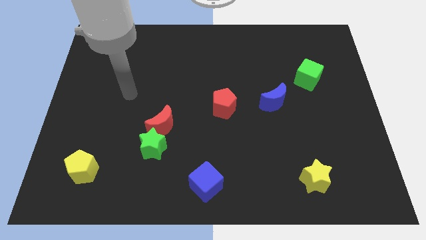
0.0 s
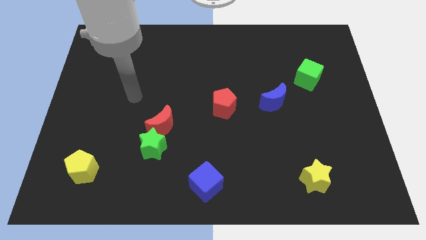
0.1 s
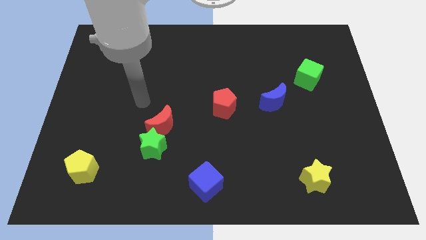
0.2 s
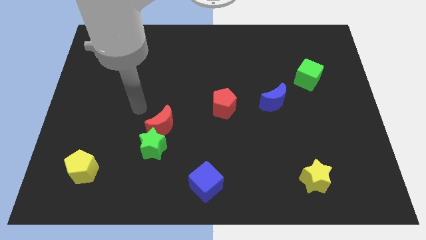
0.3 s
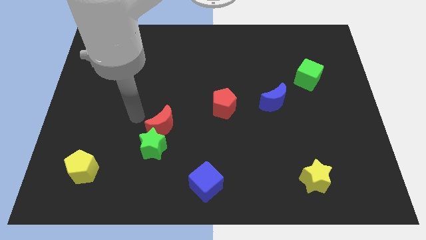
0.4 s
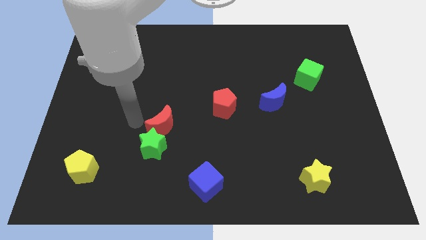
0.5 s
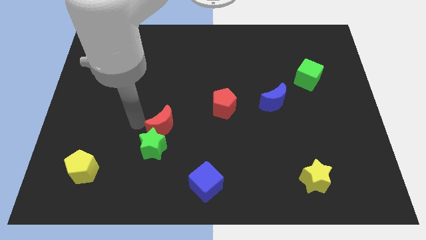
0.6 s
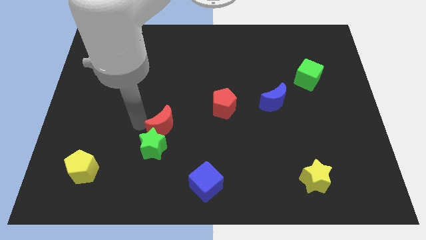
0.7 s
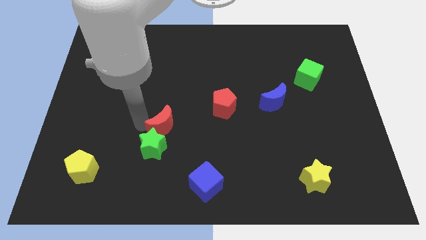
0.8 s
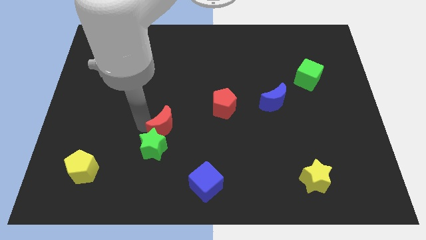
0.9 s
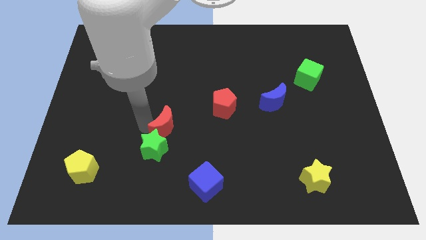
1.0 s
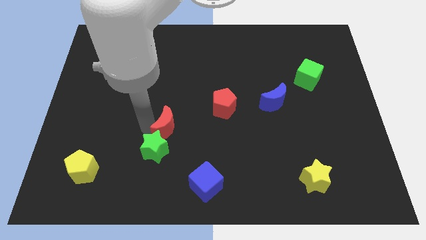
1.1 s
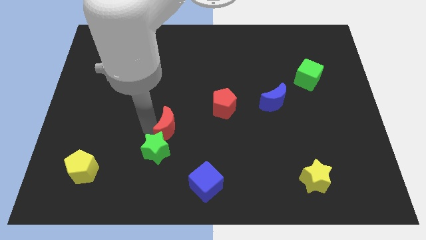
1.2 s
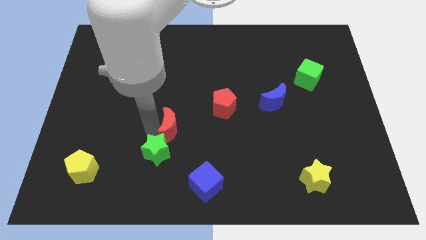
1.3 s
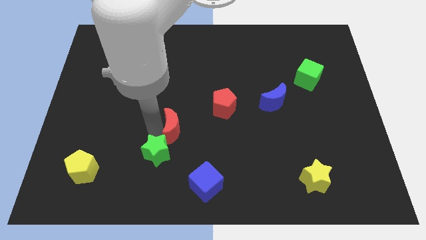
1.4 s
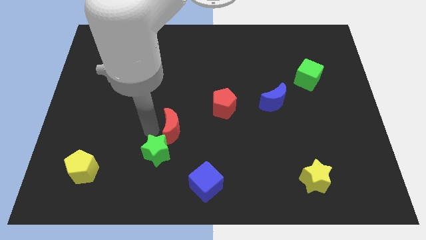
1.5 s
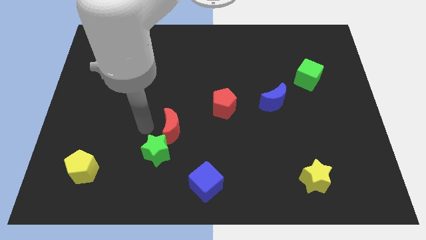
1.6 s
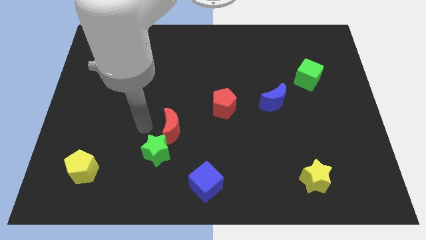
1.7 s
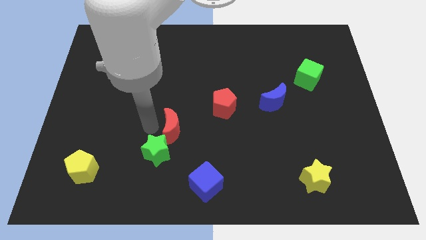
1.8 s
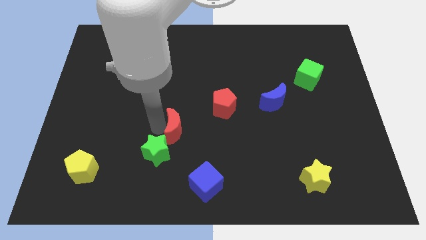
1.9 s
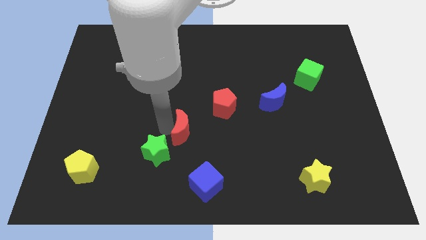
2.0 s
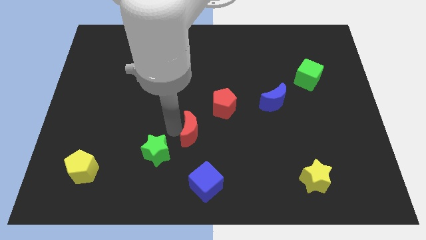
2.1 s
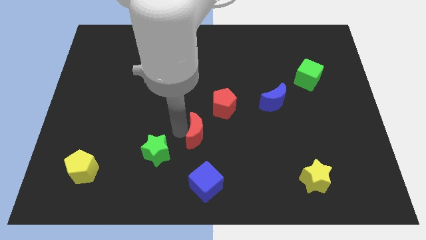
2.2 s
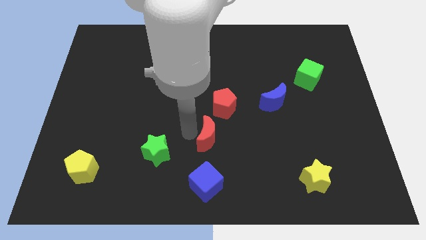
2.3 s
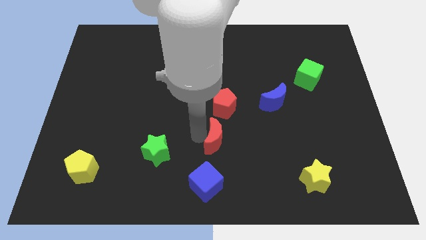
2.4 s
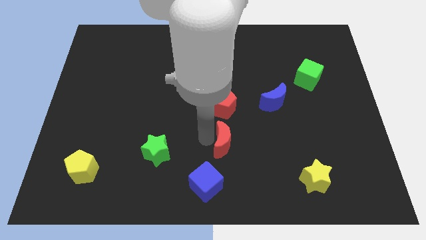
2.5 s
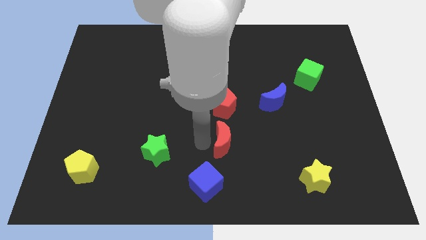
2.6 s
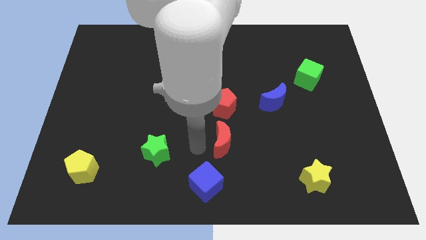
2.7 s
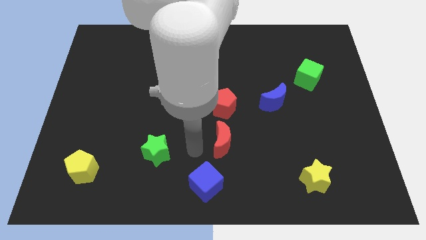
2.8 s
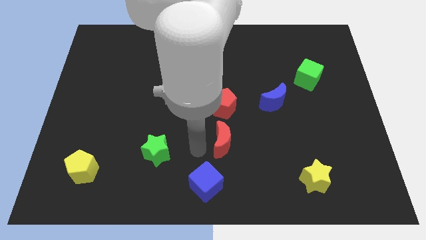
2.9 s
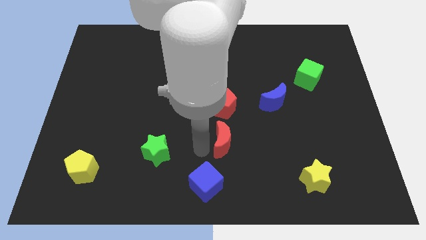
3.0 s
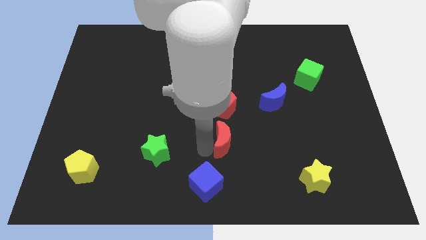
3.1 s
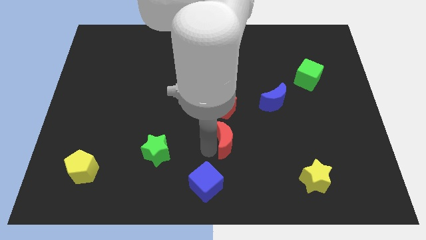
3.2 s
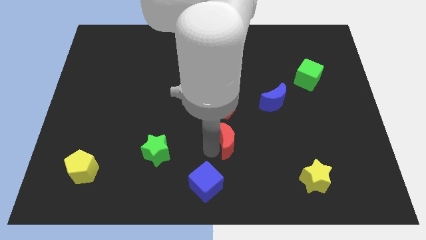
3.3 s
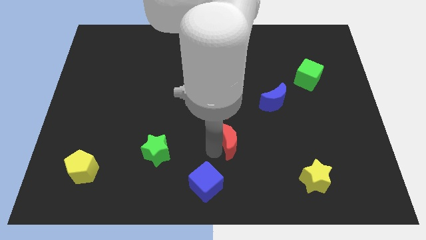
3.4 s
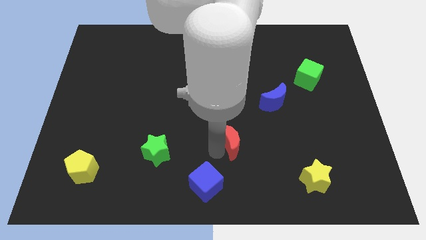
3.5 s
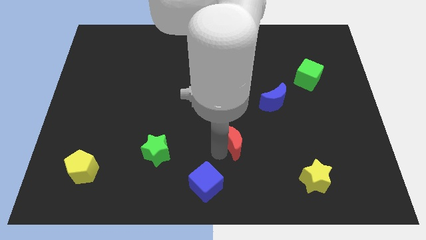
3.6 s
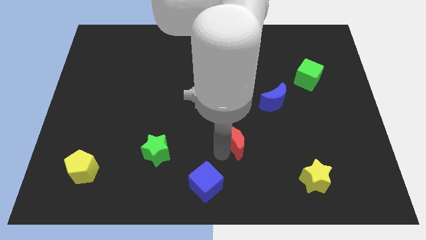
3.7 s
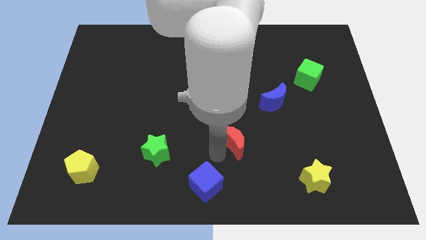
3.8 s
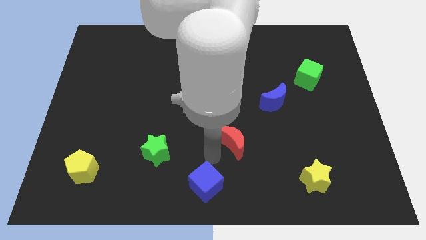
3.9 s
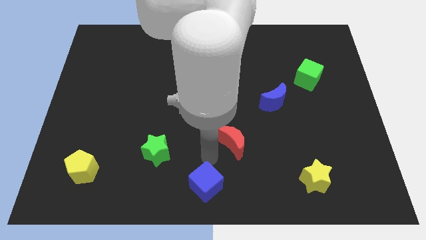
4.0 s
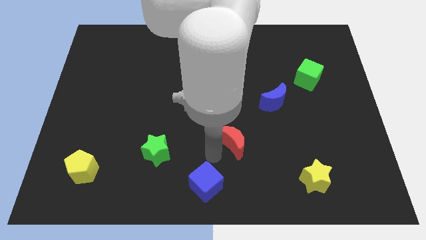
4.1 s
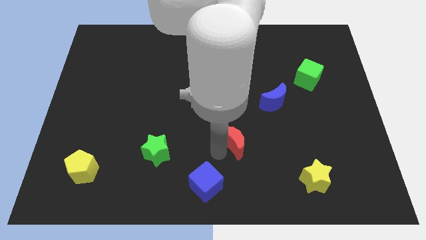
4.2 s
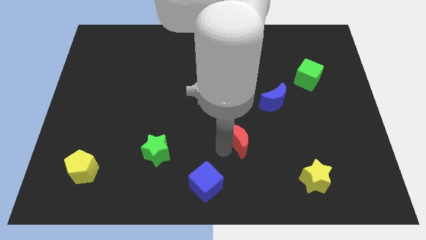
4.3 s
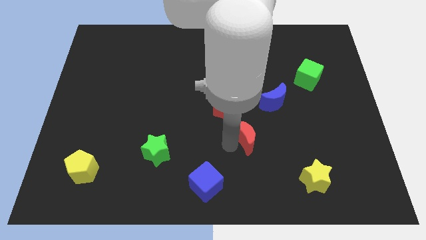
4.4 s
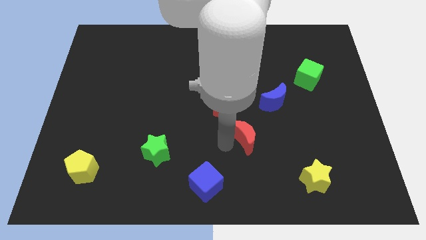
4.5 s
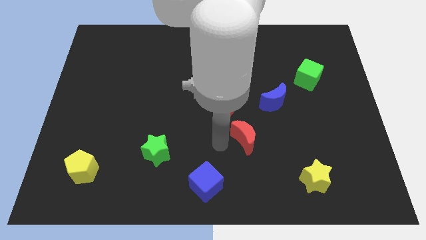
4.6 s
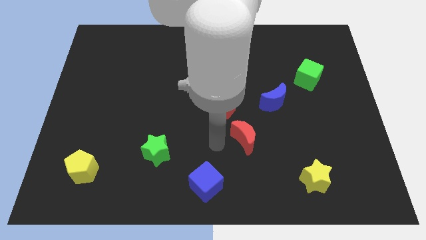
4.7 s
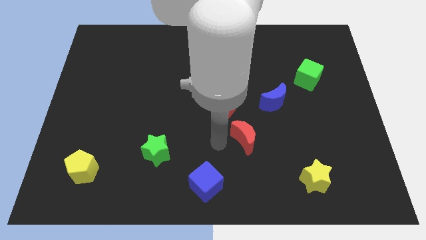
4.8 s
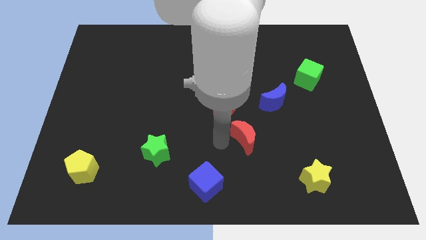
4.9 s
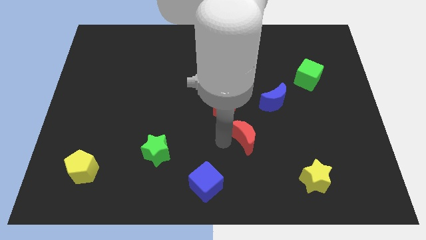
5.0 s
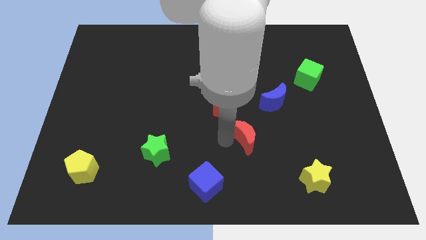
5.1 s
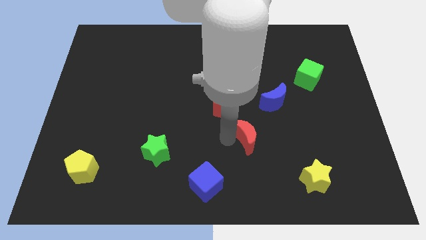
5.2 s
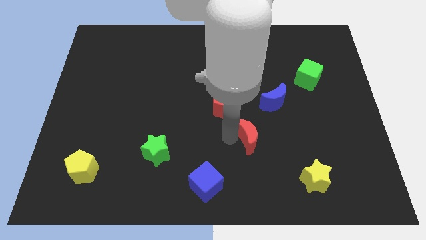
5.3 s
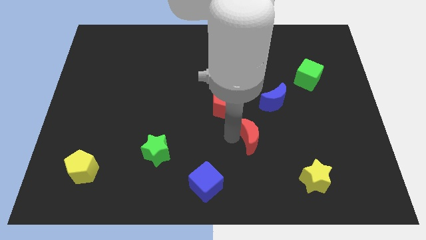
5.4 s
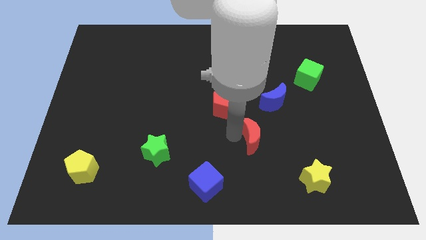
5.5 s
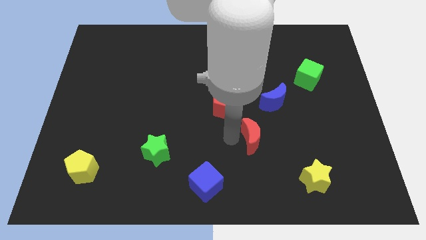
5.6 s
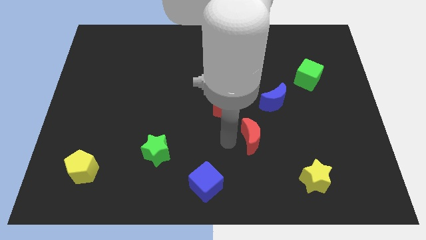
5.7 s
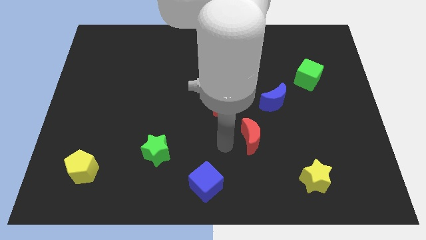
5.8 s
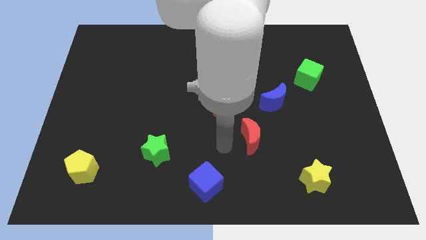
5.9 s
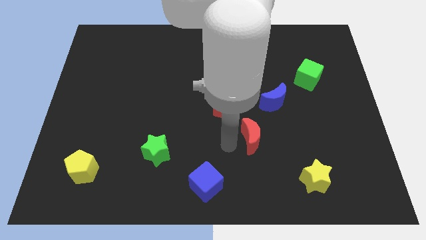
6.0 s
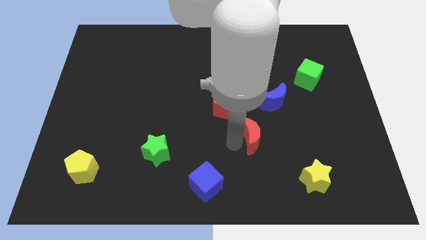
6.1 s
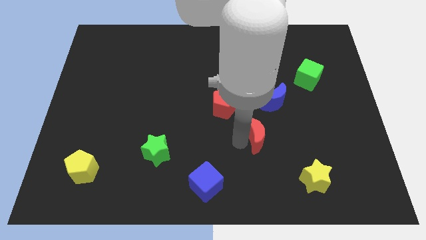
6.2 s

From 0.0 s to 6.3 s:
slide the red moon right

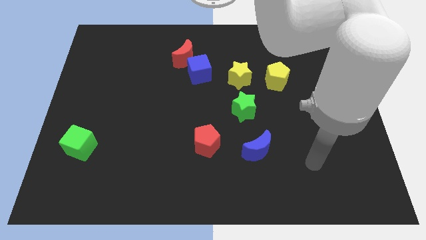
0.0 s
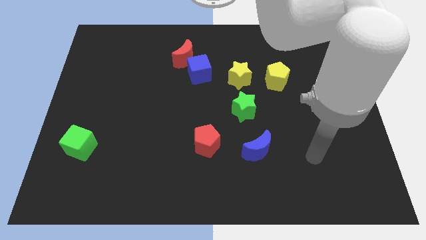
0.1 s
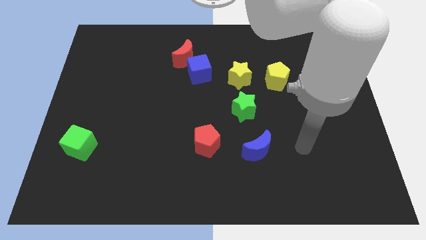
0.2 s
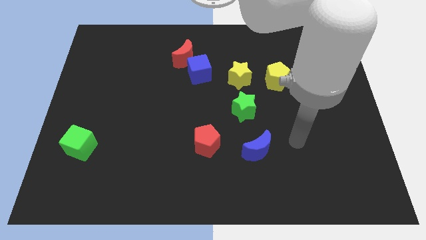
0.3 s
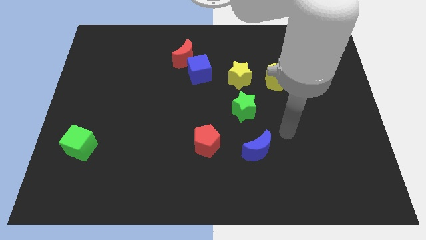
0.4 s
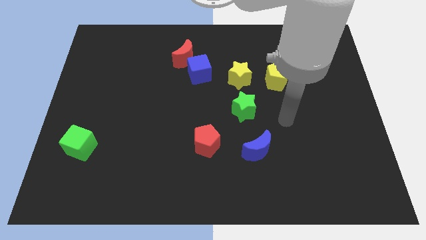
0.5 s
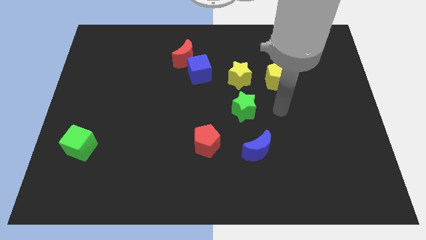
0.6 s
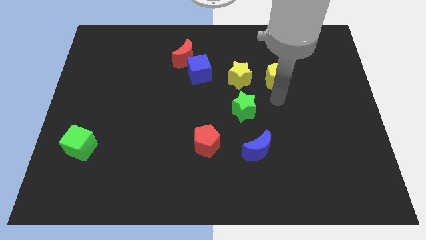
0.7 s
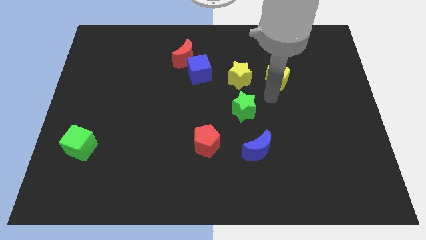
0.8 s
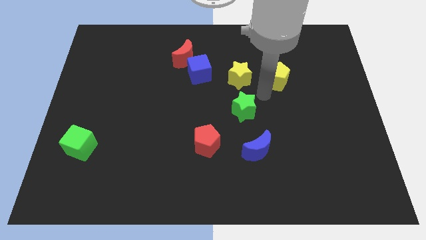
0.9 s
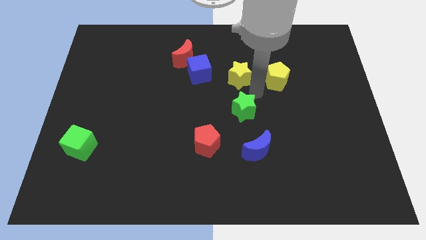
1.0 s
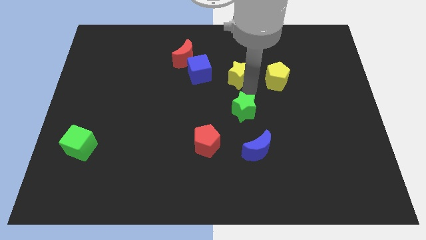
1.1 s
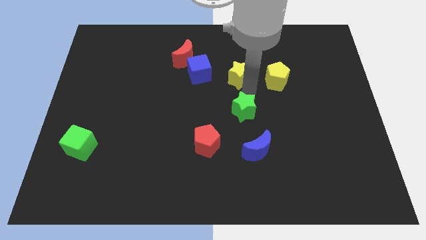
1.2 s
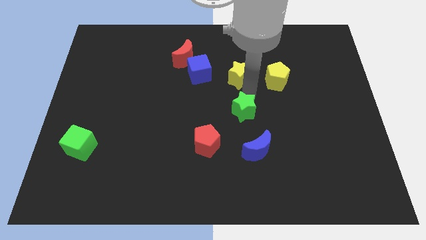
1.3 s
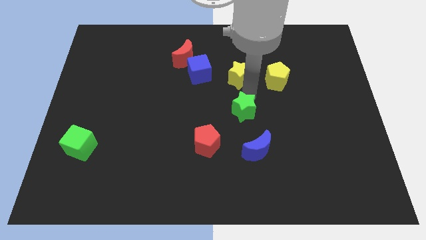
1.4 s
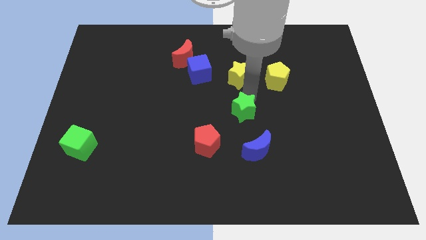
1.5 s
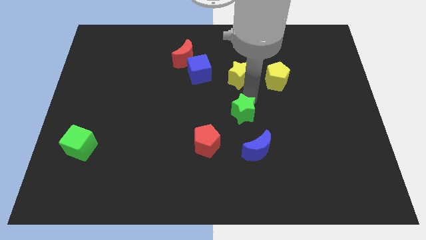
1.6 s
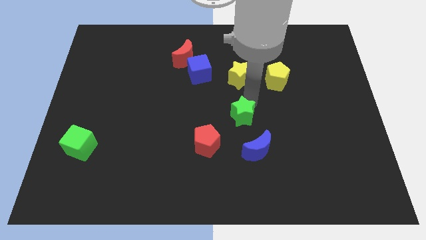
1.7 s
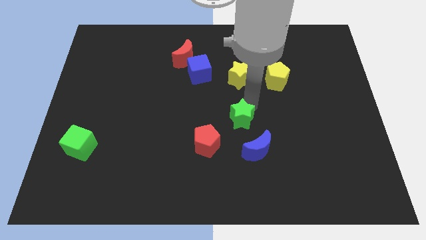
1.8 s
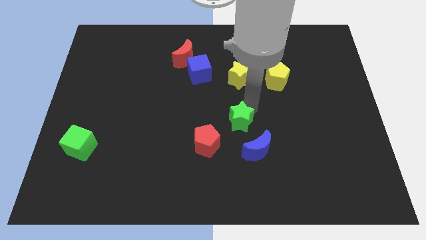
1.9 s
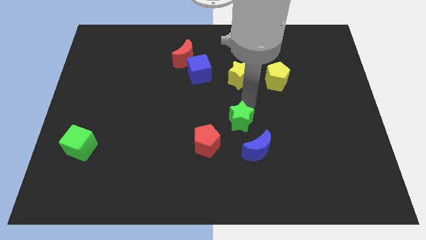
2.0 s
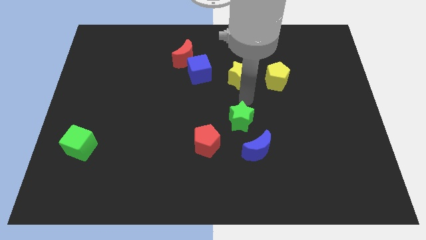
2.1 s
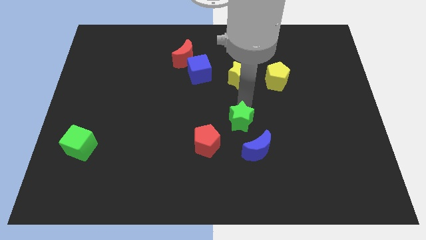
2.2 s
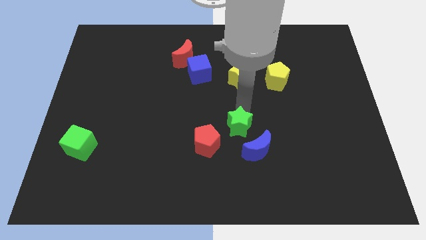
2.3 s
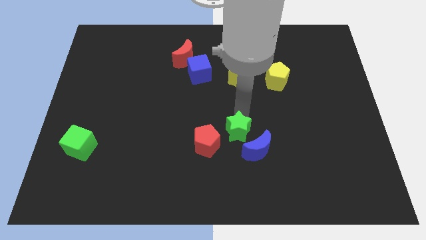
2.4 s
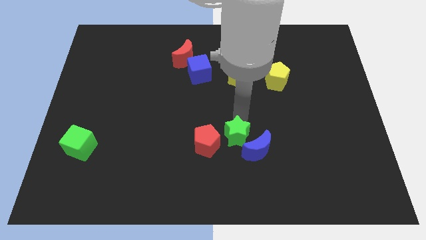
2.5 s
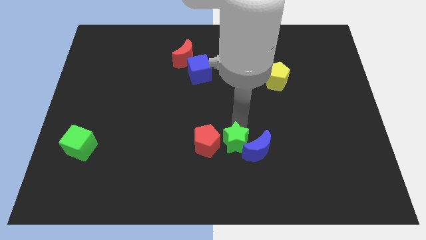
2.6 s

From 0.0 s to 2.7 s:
slightly push the green star downwards and left diagonally
